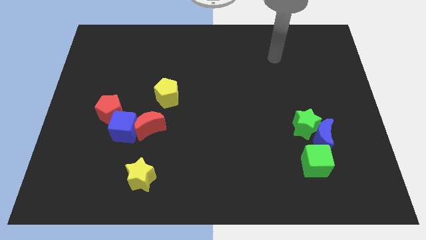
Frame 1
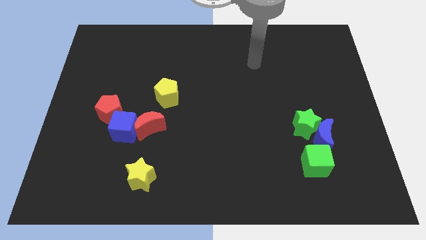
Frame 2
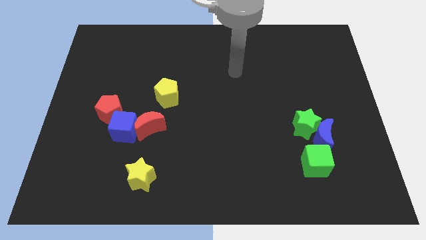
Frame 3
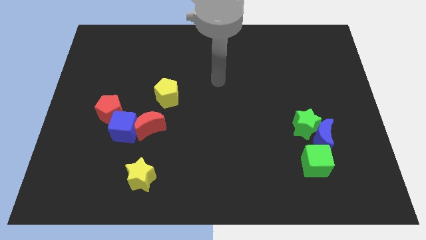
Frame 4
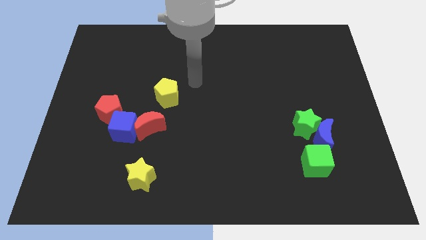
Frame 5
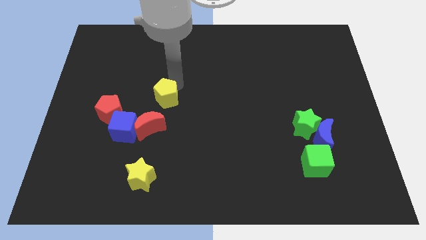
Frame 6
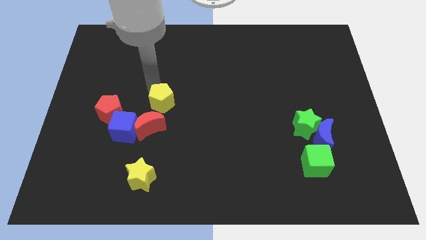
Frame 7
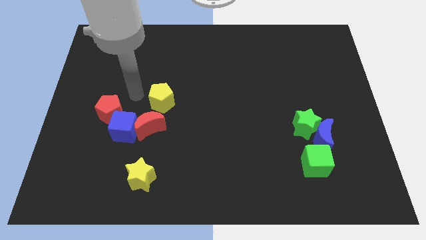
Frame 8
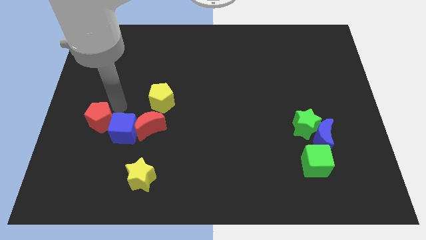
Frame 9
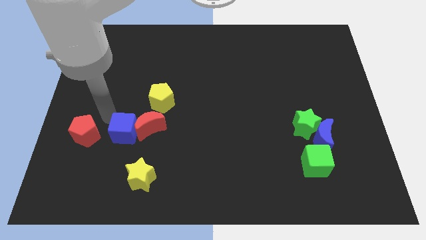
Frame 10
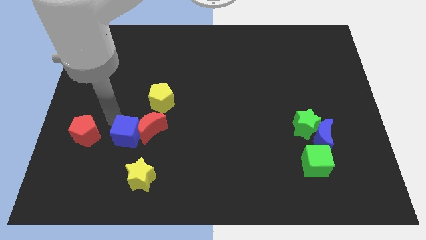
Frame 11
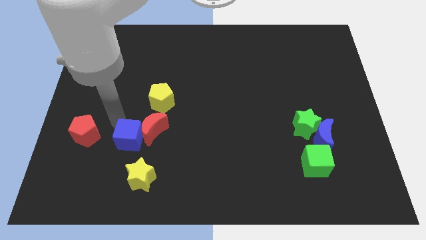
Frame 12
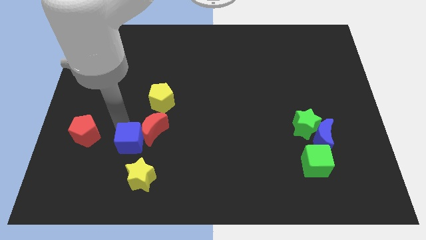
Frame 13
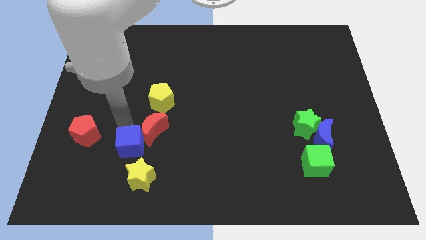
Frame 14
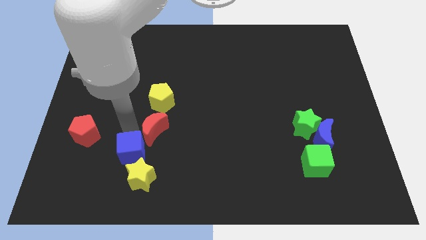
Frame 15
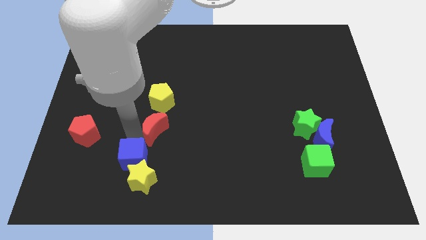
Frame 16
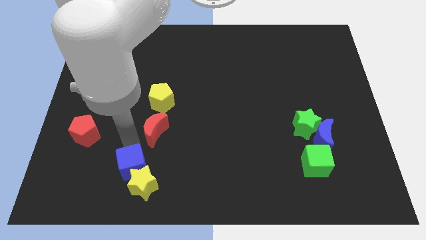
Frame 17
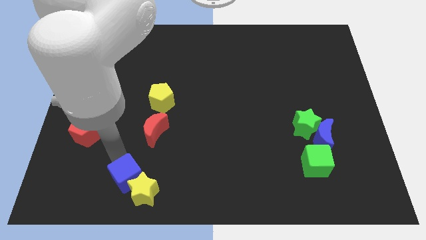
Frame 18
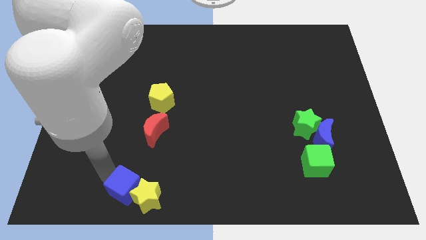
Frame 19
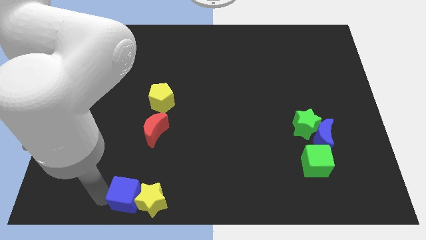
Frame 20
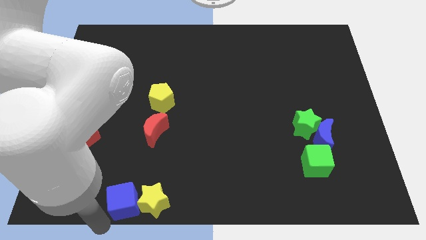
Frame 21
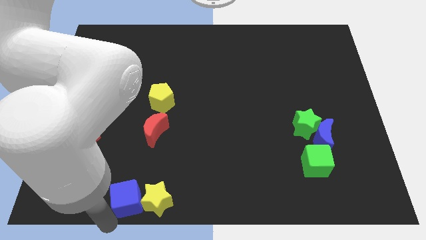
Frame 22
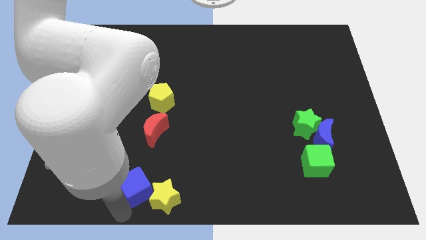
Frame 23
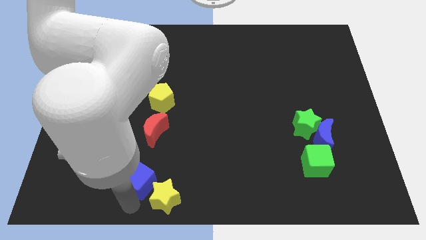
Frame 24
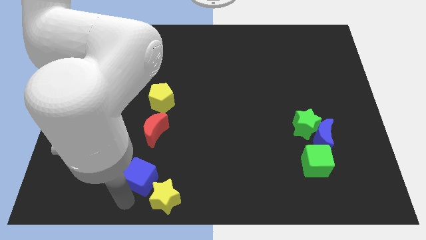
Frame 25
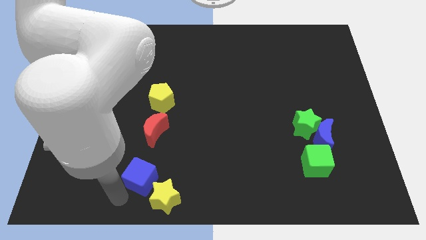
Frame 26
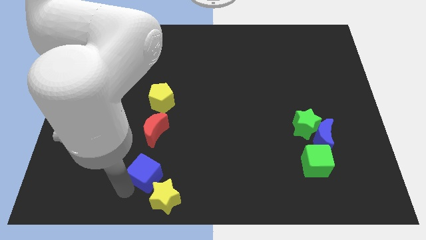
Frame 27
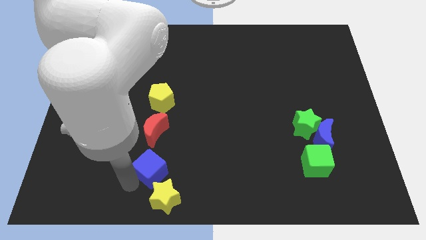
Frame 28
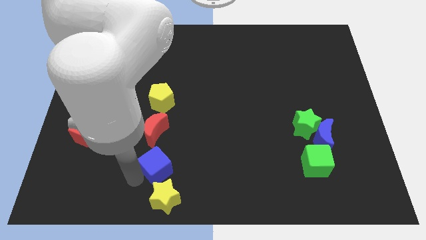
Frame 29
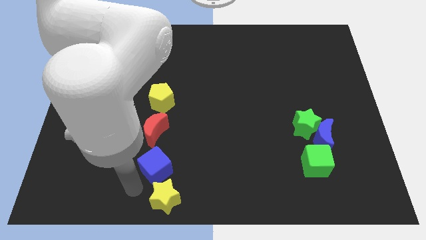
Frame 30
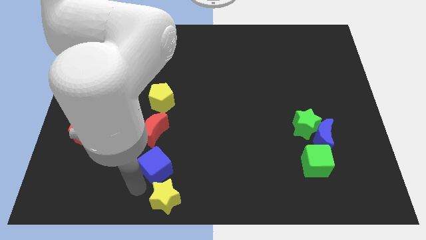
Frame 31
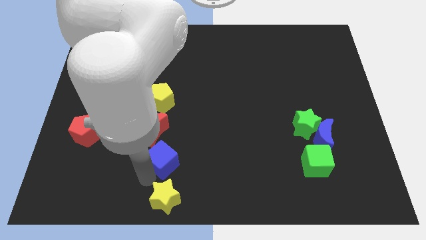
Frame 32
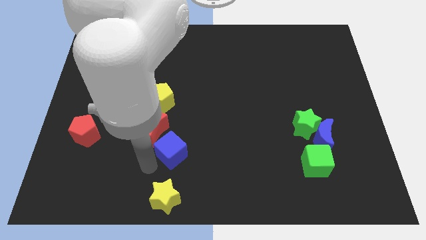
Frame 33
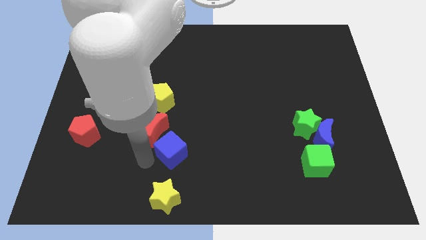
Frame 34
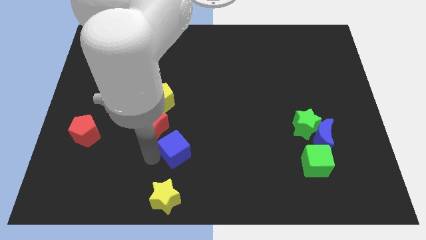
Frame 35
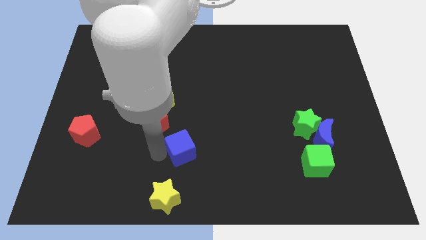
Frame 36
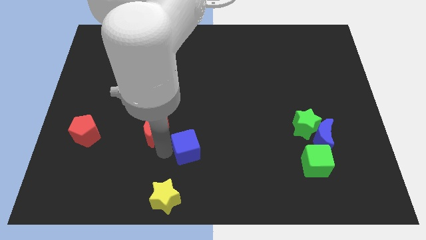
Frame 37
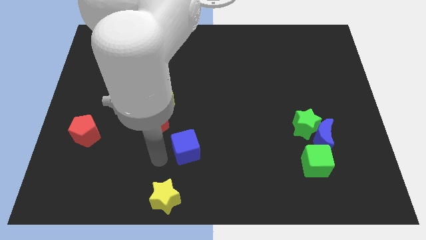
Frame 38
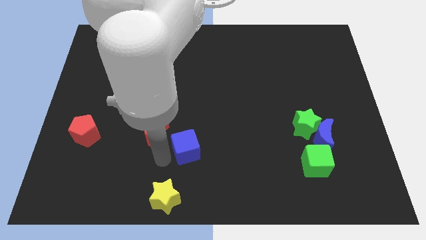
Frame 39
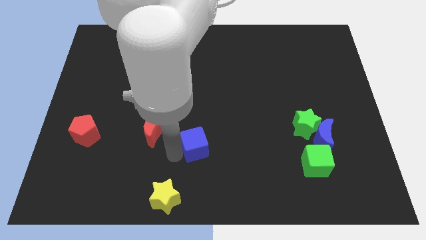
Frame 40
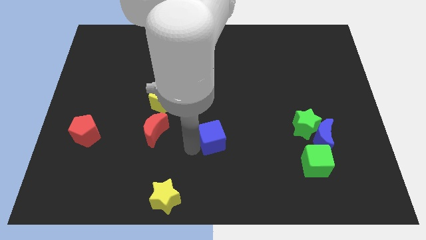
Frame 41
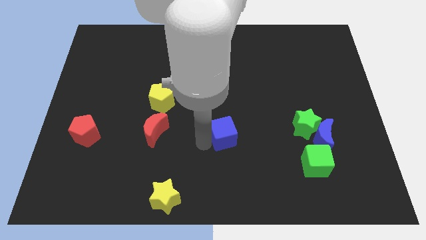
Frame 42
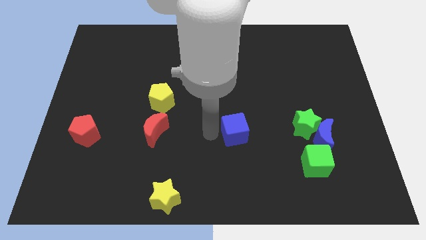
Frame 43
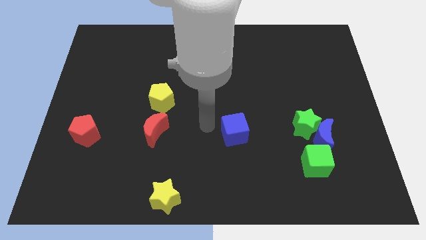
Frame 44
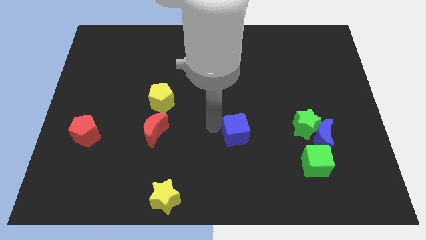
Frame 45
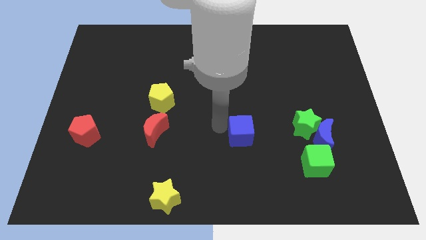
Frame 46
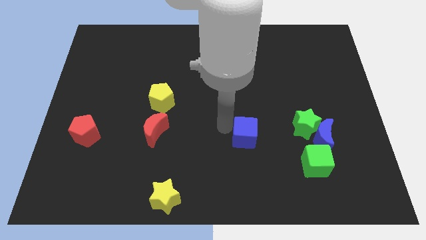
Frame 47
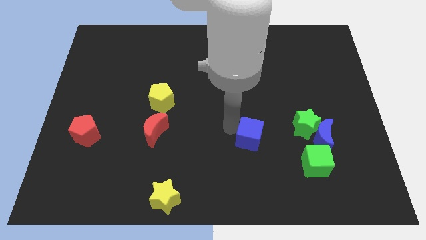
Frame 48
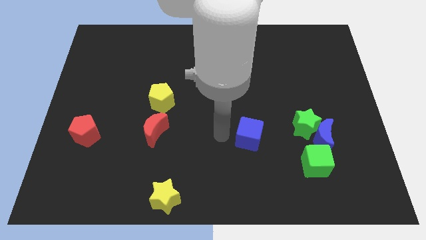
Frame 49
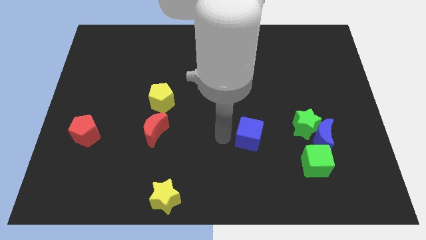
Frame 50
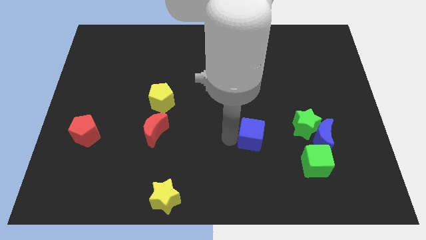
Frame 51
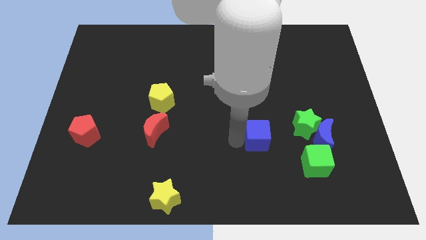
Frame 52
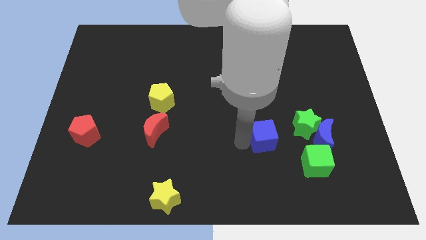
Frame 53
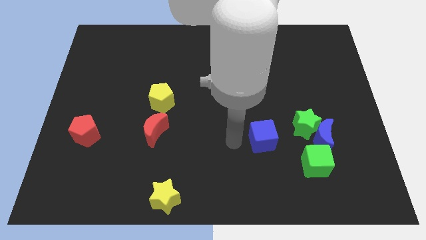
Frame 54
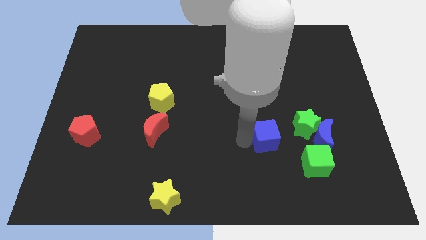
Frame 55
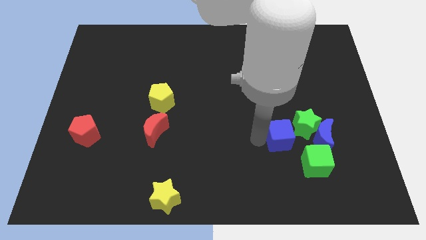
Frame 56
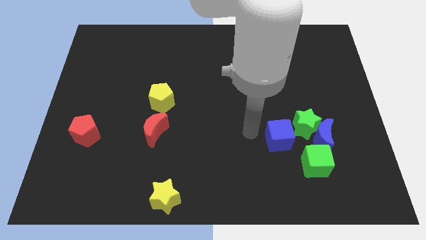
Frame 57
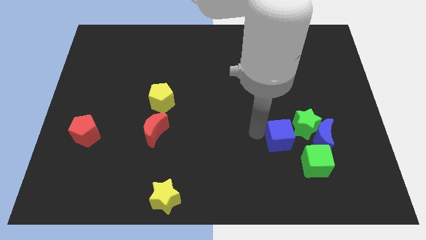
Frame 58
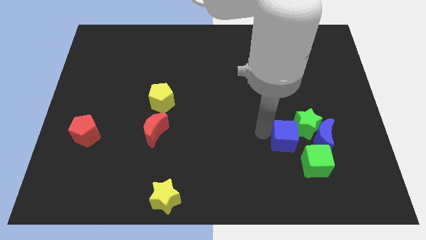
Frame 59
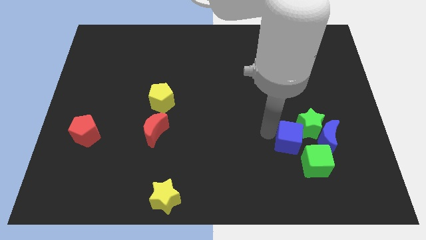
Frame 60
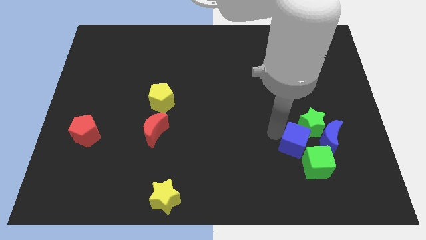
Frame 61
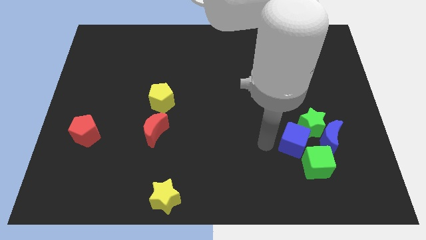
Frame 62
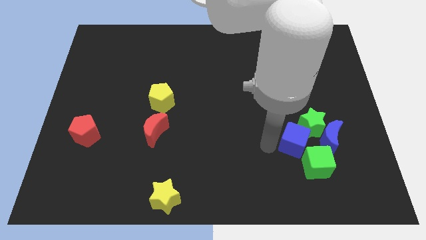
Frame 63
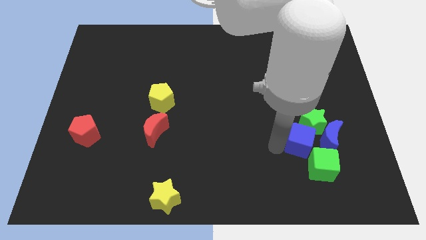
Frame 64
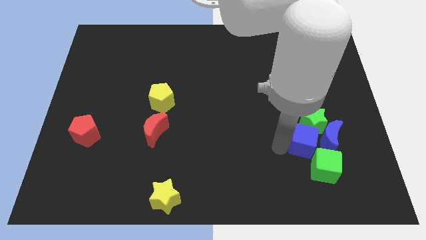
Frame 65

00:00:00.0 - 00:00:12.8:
push the blue cube towards the blue moon
